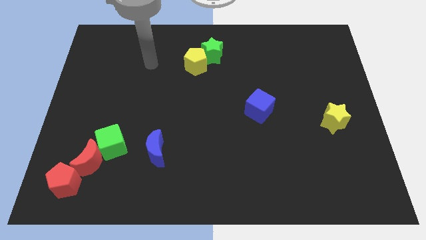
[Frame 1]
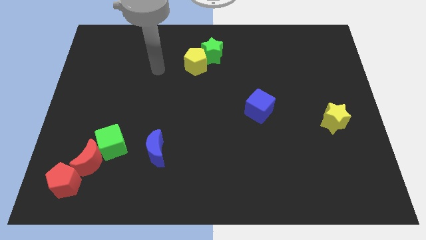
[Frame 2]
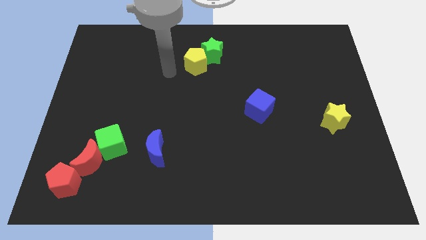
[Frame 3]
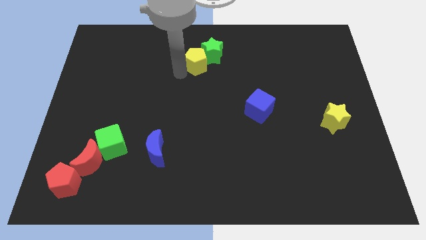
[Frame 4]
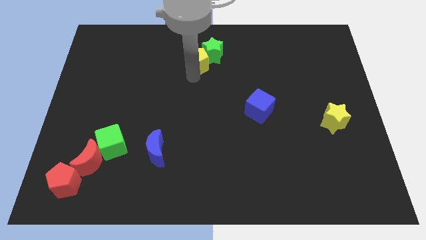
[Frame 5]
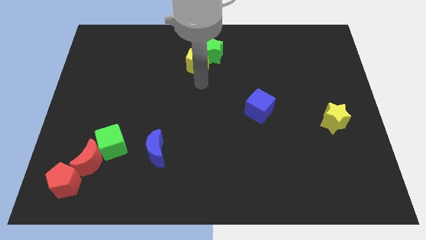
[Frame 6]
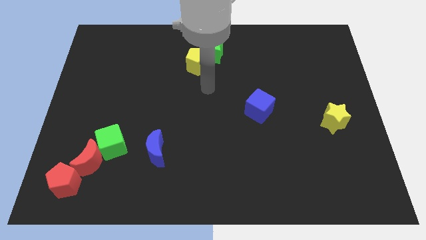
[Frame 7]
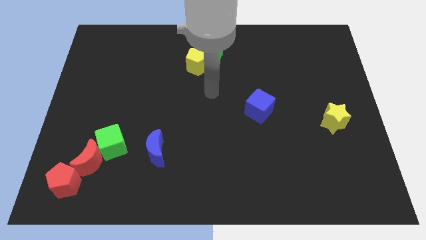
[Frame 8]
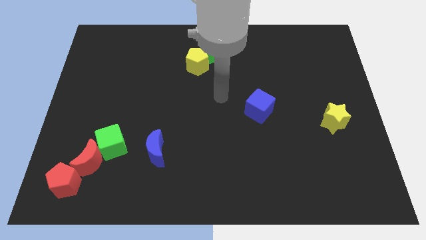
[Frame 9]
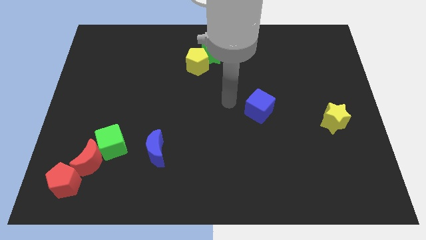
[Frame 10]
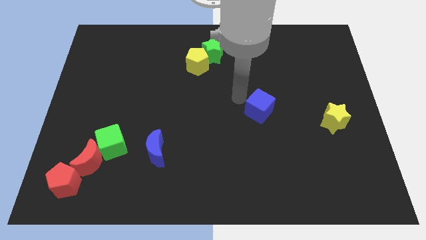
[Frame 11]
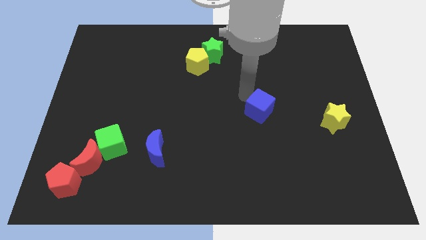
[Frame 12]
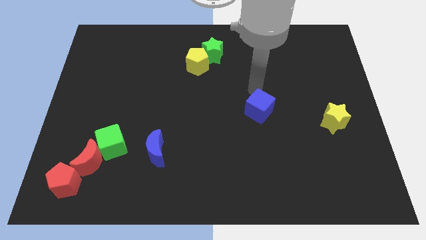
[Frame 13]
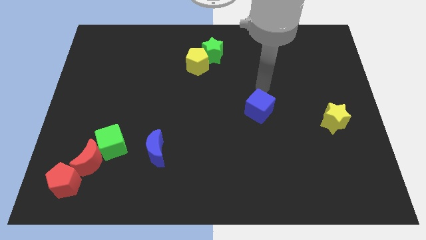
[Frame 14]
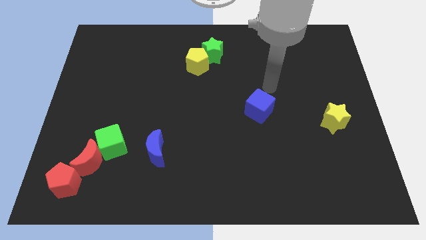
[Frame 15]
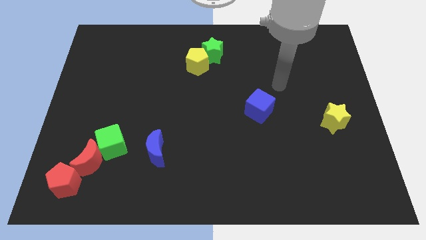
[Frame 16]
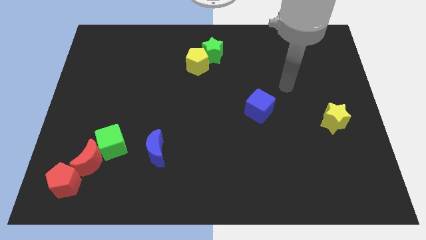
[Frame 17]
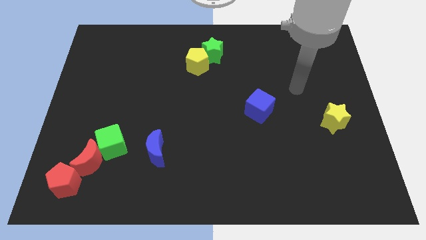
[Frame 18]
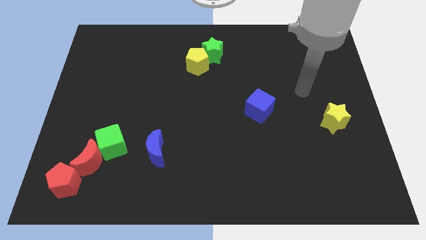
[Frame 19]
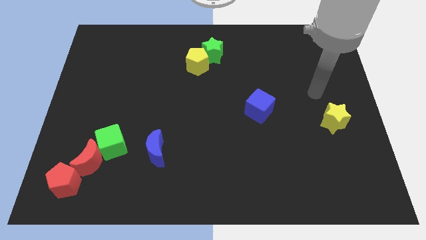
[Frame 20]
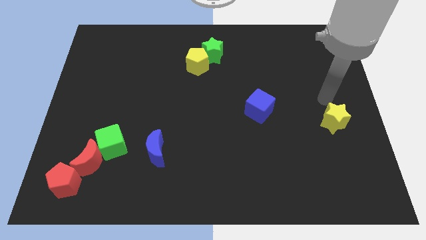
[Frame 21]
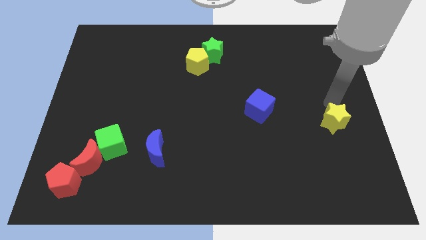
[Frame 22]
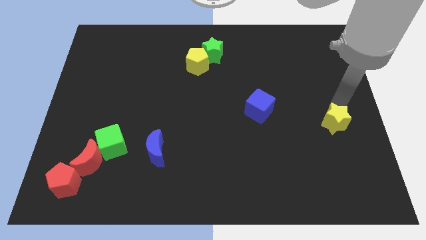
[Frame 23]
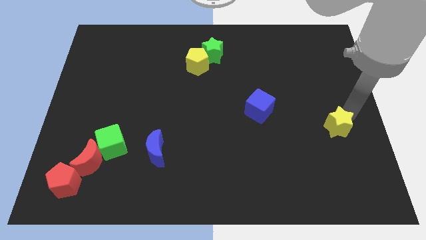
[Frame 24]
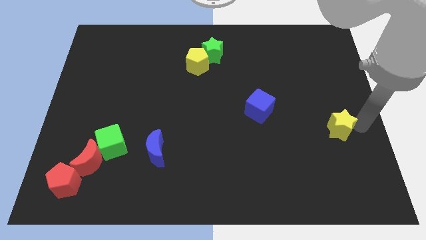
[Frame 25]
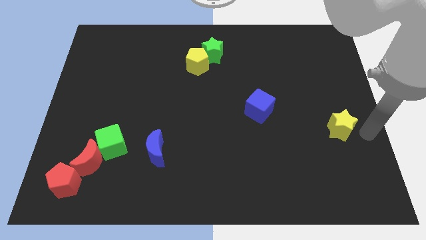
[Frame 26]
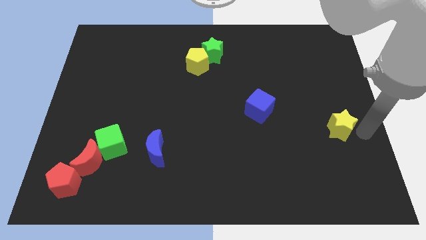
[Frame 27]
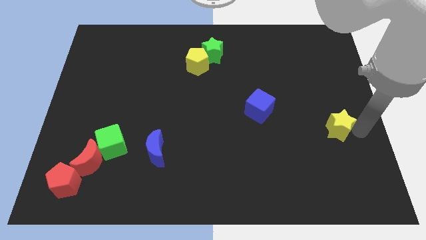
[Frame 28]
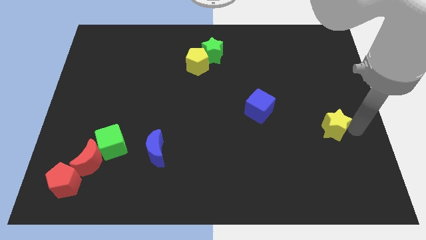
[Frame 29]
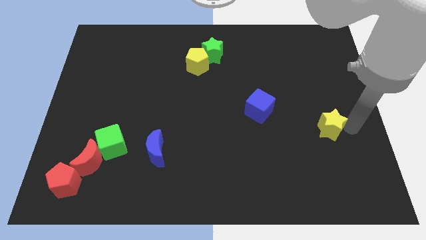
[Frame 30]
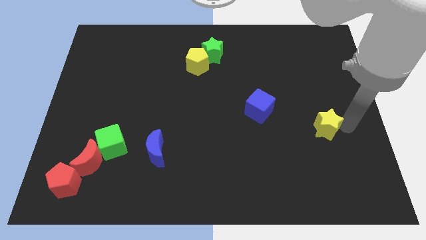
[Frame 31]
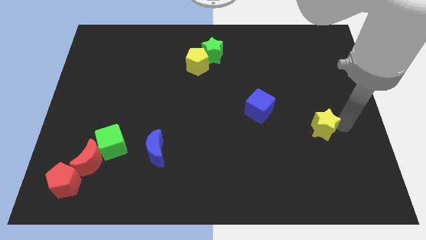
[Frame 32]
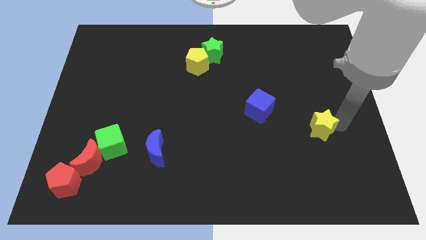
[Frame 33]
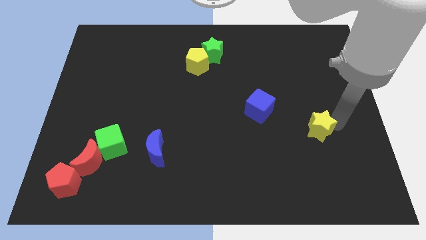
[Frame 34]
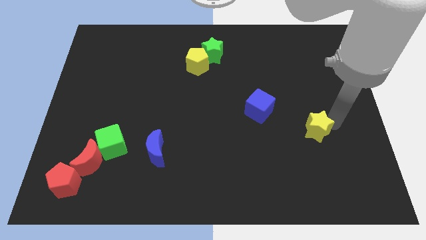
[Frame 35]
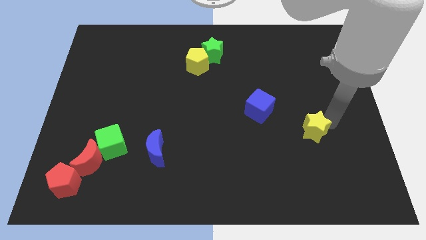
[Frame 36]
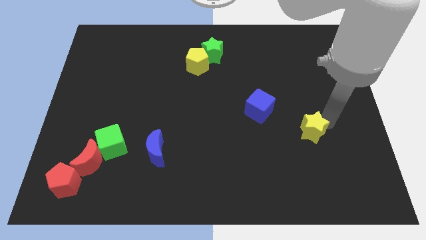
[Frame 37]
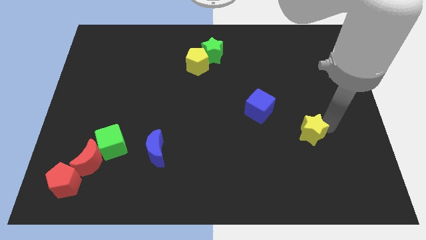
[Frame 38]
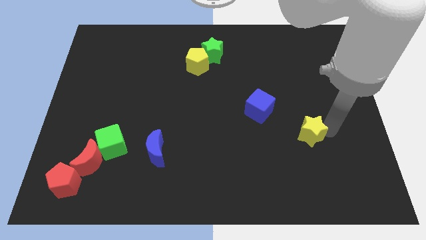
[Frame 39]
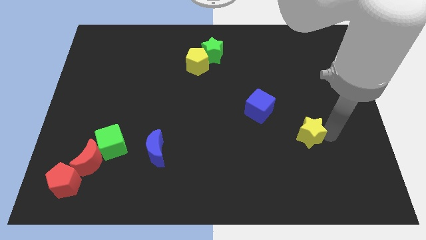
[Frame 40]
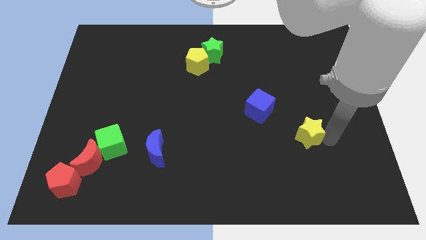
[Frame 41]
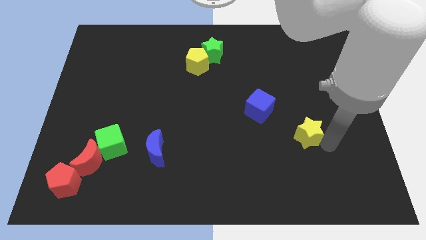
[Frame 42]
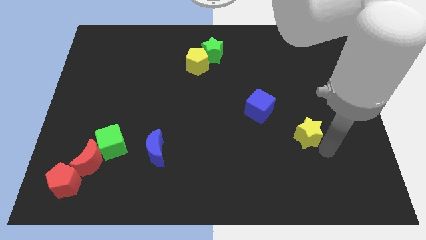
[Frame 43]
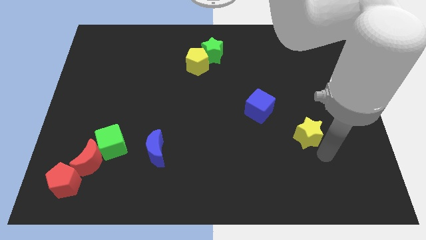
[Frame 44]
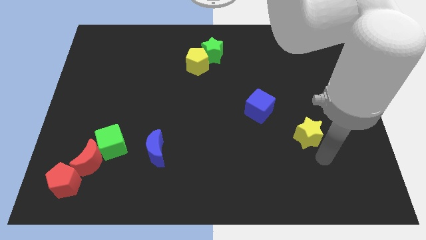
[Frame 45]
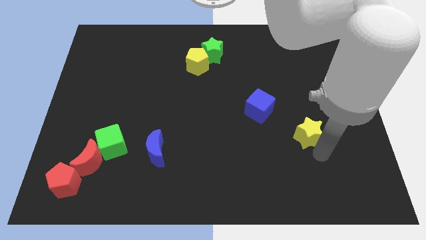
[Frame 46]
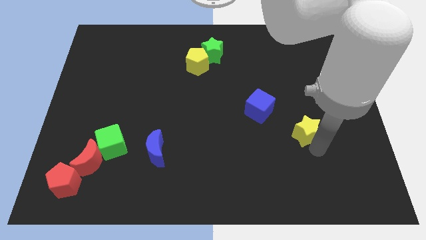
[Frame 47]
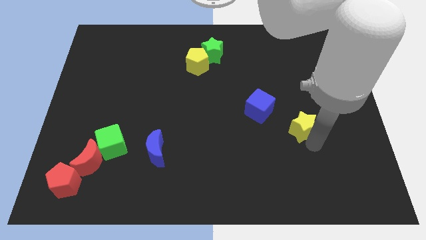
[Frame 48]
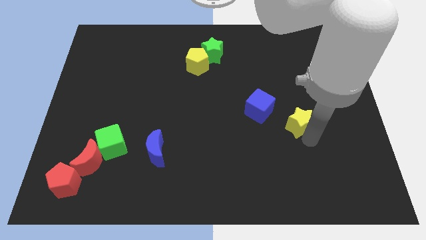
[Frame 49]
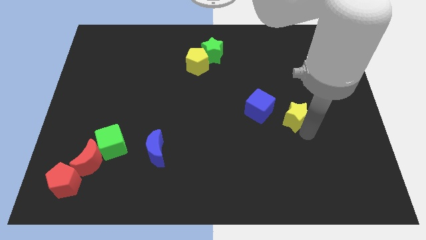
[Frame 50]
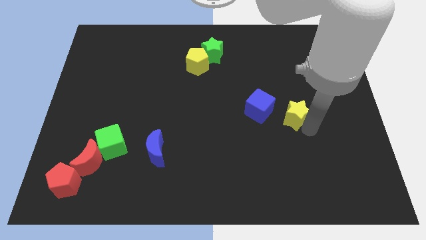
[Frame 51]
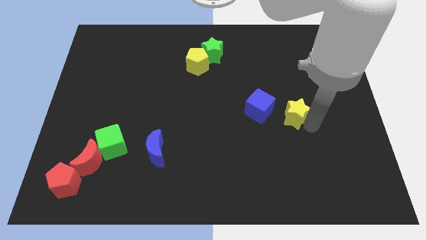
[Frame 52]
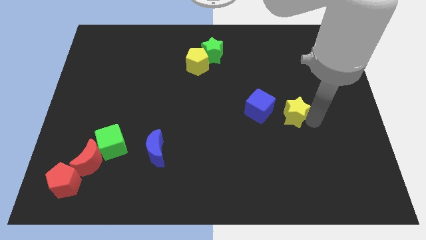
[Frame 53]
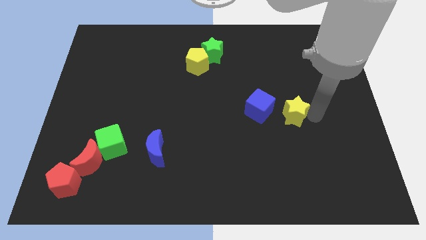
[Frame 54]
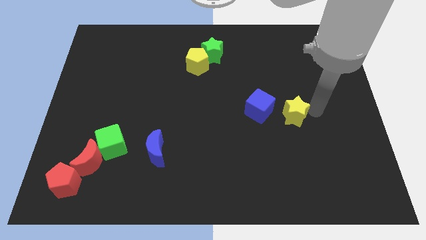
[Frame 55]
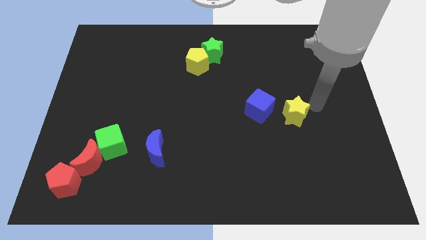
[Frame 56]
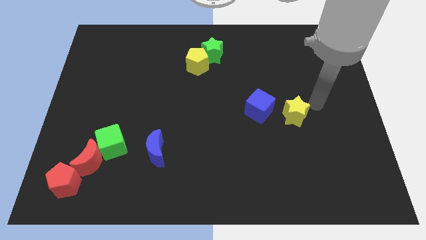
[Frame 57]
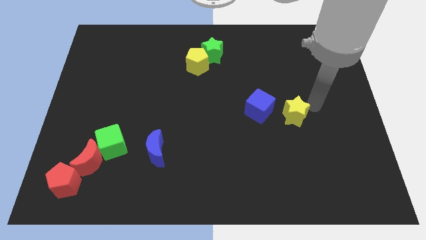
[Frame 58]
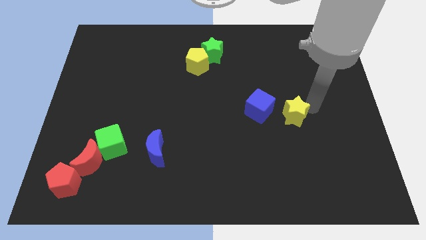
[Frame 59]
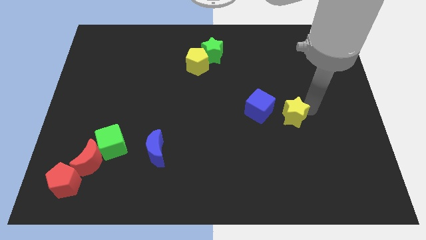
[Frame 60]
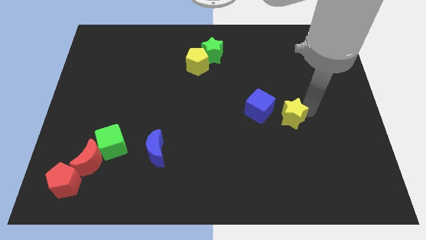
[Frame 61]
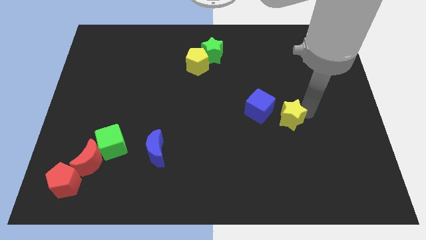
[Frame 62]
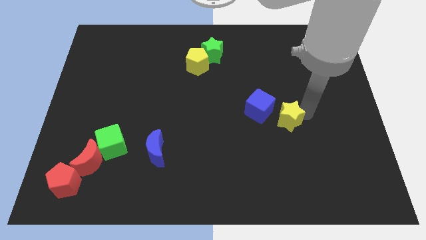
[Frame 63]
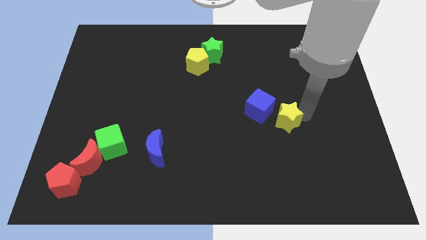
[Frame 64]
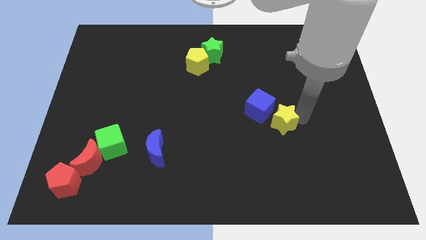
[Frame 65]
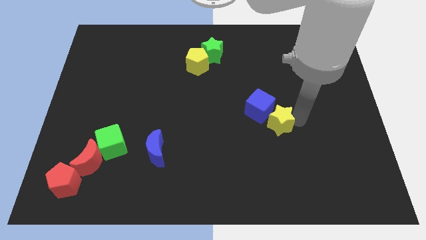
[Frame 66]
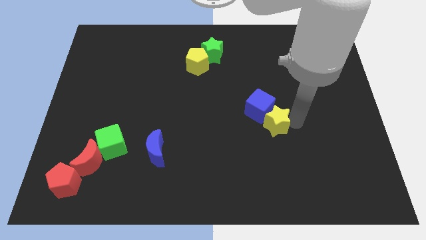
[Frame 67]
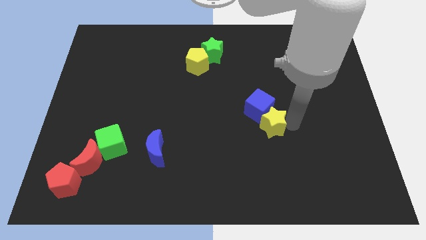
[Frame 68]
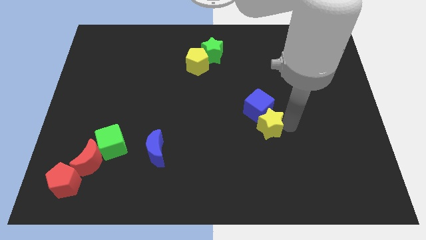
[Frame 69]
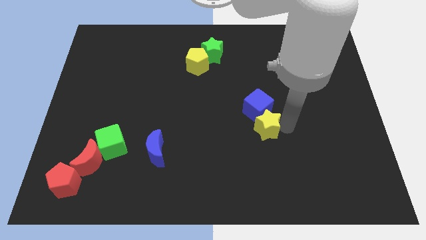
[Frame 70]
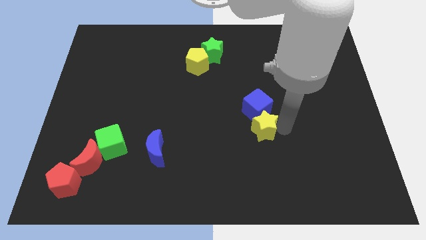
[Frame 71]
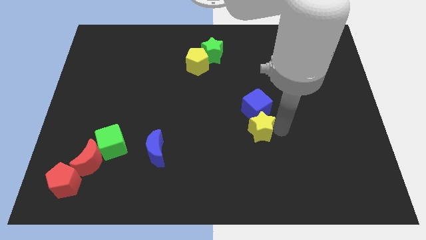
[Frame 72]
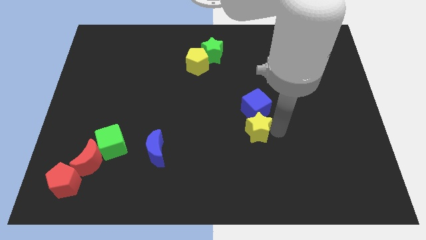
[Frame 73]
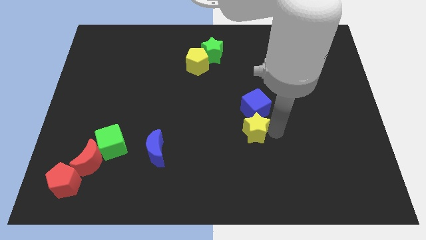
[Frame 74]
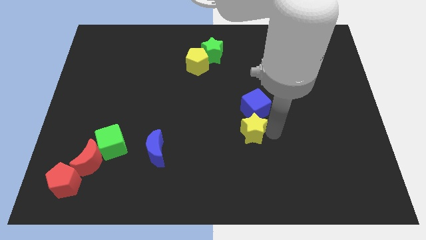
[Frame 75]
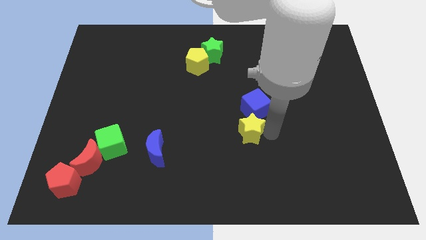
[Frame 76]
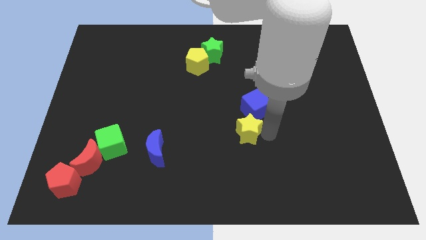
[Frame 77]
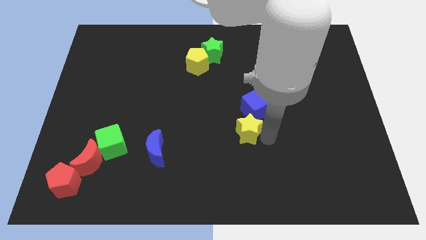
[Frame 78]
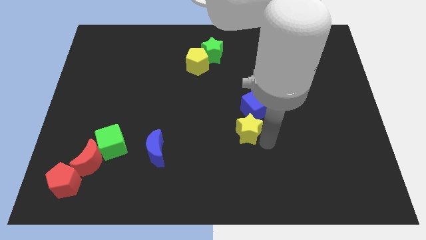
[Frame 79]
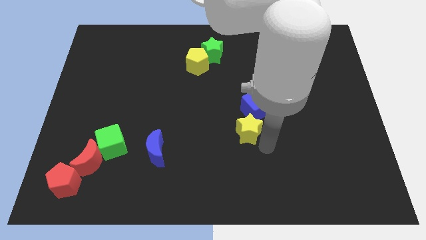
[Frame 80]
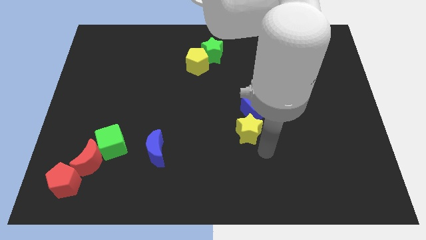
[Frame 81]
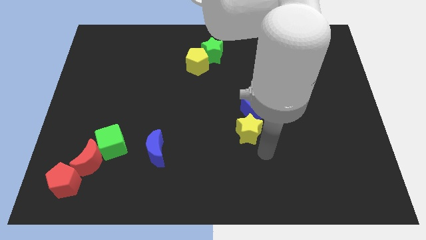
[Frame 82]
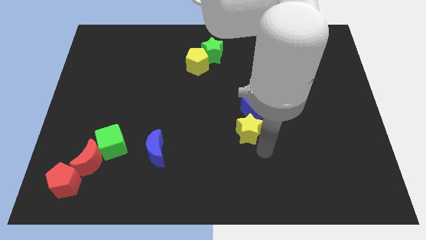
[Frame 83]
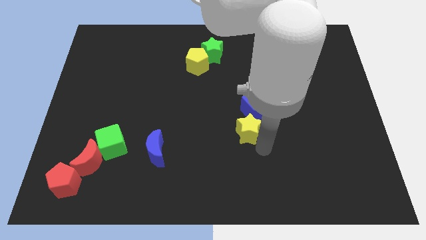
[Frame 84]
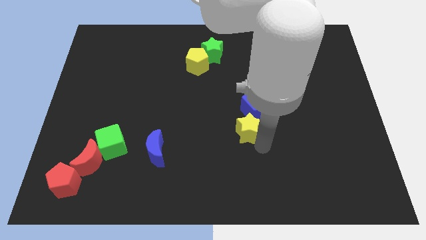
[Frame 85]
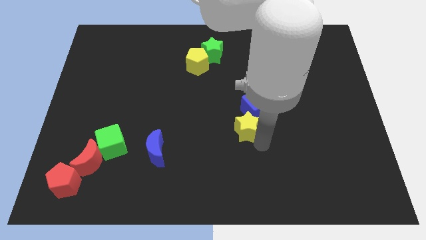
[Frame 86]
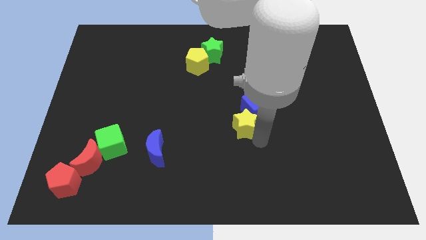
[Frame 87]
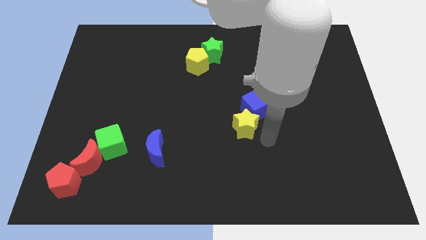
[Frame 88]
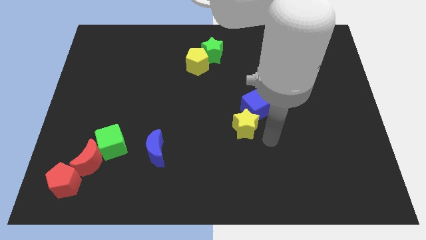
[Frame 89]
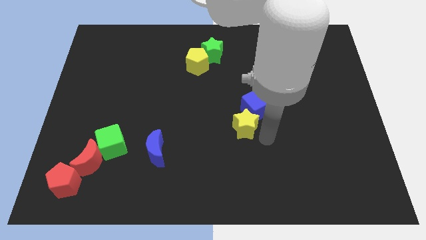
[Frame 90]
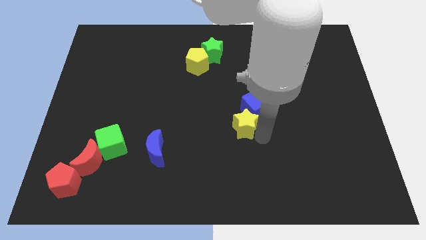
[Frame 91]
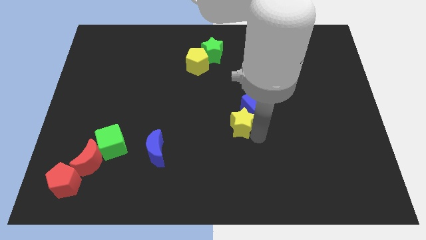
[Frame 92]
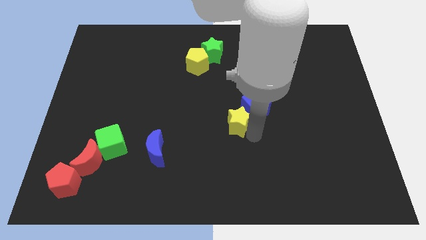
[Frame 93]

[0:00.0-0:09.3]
put the yellow star just left of the blue cube
